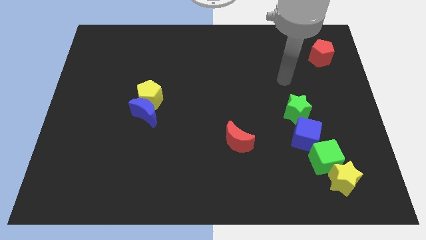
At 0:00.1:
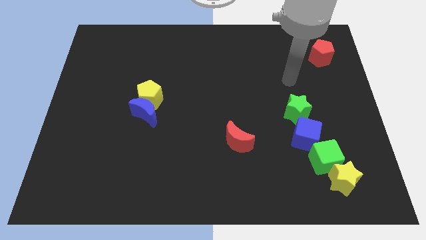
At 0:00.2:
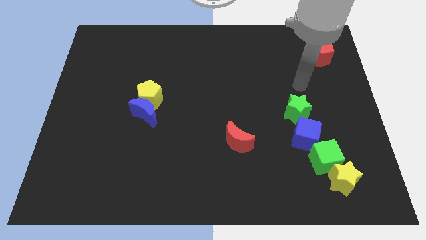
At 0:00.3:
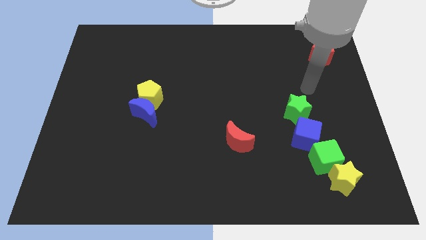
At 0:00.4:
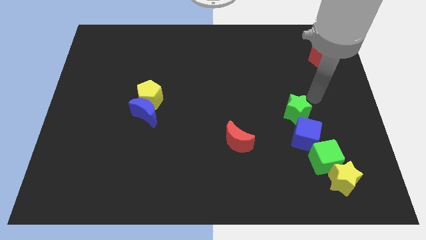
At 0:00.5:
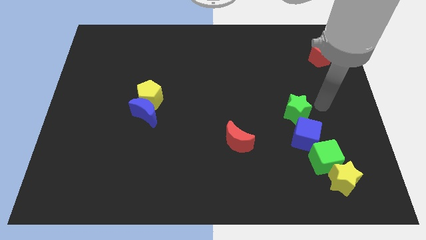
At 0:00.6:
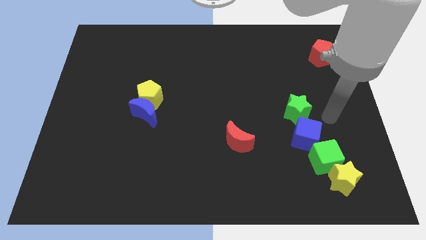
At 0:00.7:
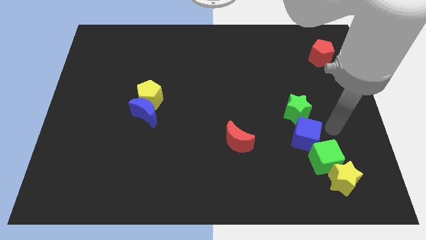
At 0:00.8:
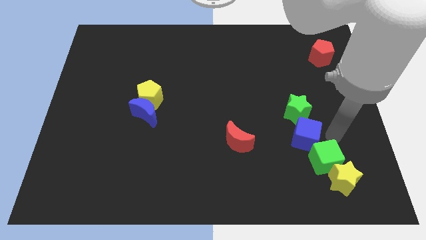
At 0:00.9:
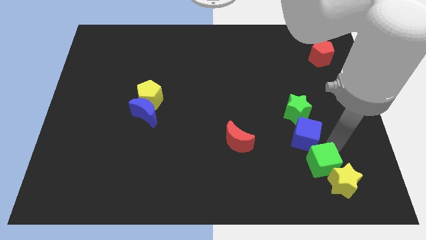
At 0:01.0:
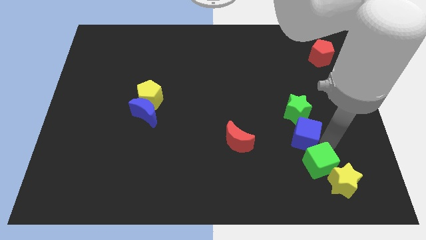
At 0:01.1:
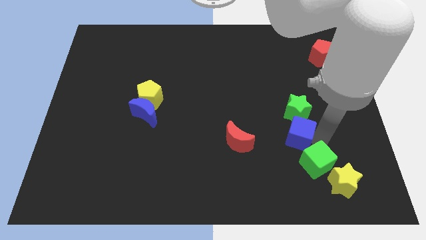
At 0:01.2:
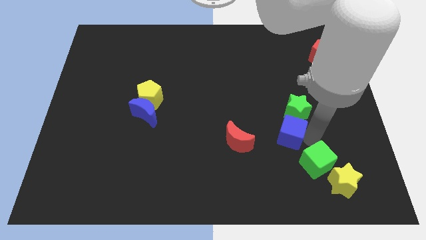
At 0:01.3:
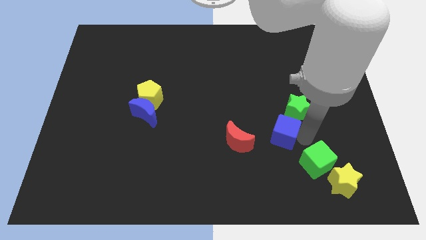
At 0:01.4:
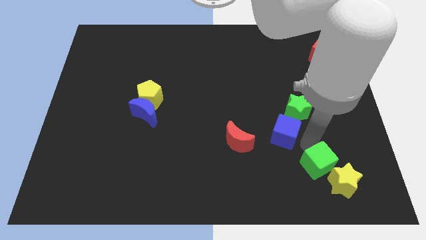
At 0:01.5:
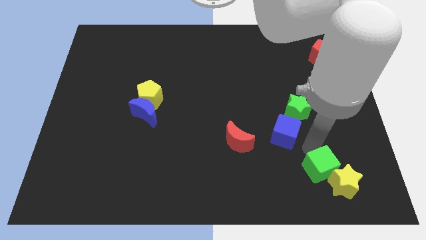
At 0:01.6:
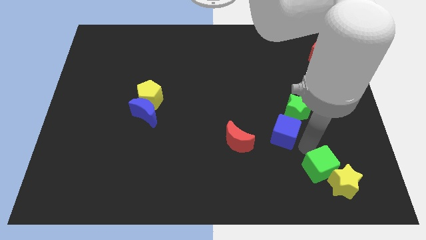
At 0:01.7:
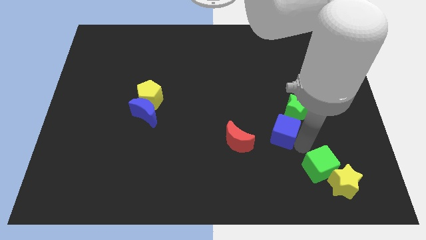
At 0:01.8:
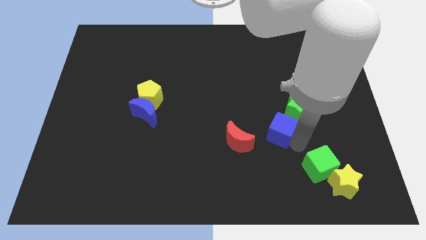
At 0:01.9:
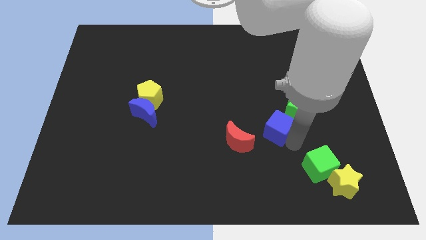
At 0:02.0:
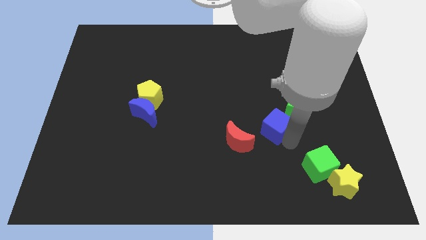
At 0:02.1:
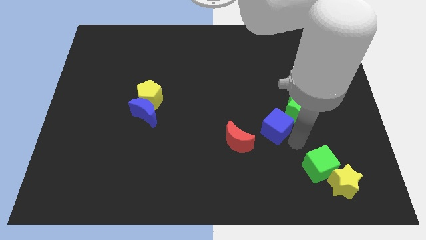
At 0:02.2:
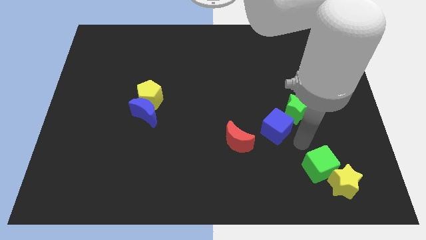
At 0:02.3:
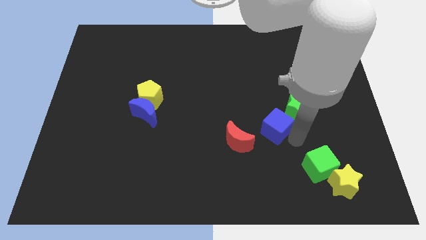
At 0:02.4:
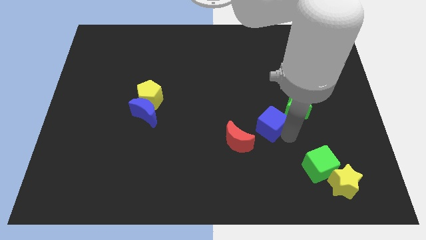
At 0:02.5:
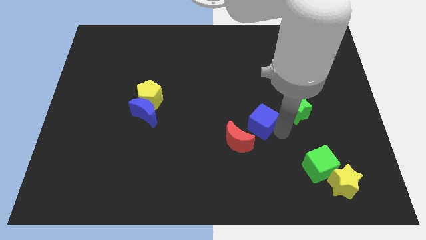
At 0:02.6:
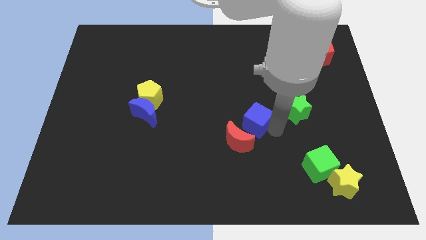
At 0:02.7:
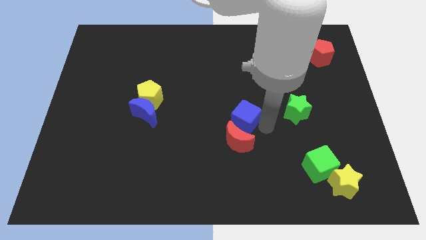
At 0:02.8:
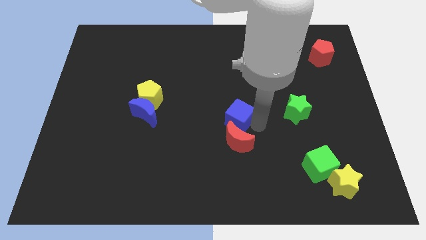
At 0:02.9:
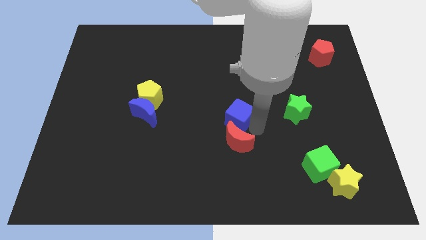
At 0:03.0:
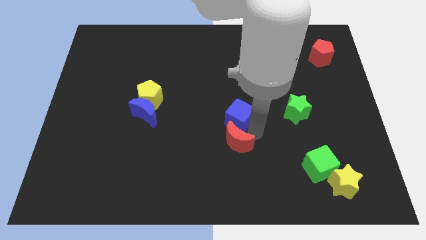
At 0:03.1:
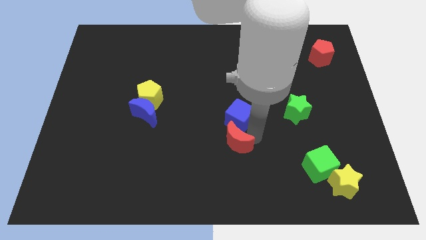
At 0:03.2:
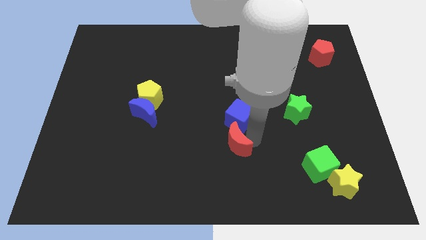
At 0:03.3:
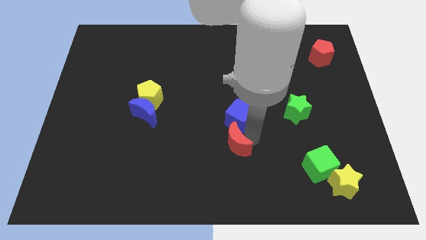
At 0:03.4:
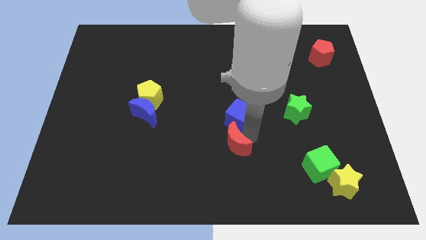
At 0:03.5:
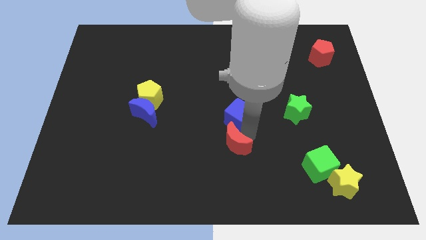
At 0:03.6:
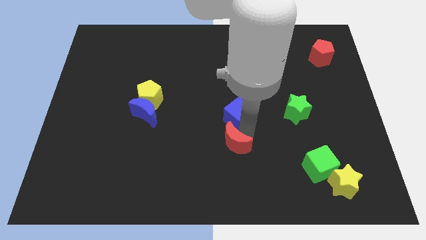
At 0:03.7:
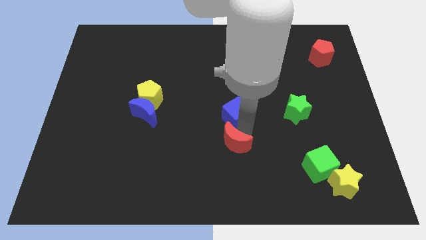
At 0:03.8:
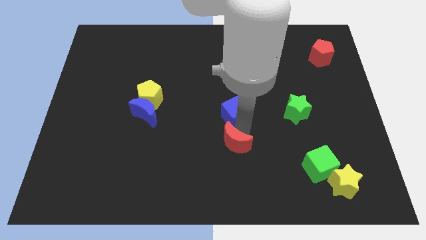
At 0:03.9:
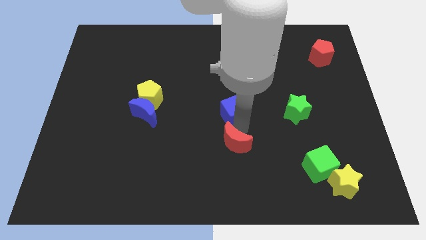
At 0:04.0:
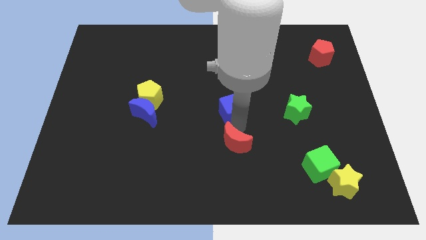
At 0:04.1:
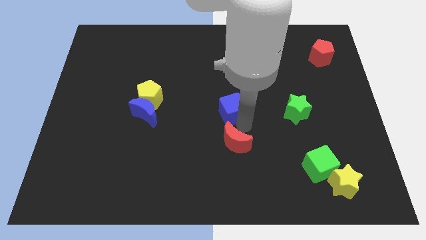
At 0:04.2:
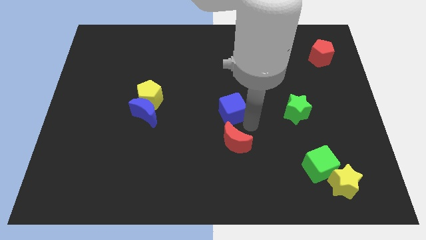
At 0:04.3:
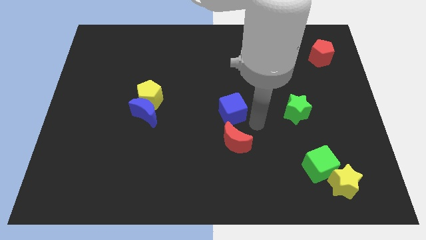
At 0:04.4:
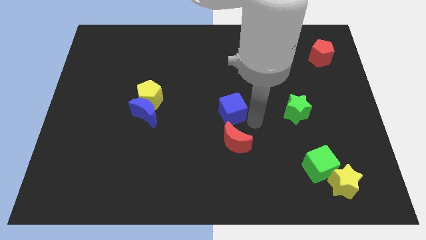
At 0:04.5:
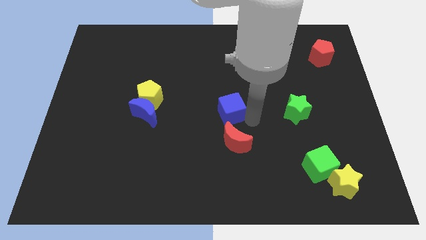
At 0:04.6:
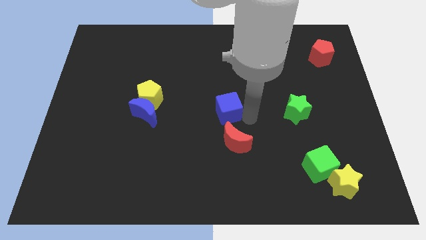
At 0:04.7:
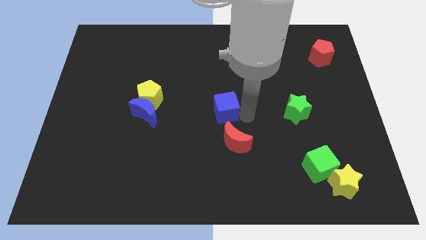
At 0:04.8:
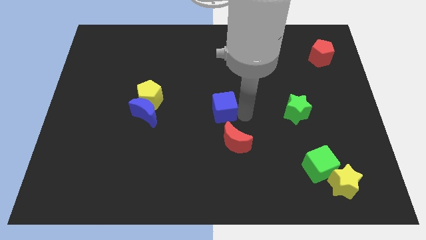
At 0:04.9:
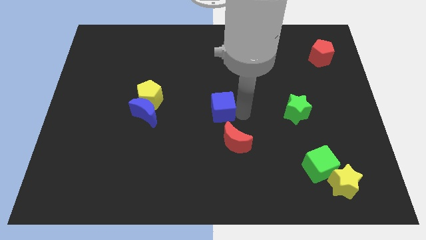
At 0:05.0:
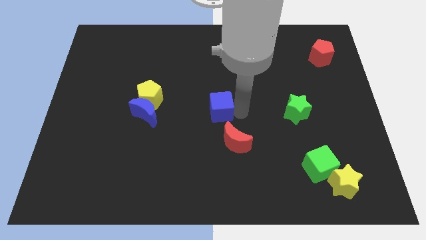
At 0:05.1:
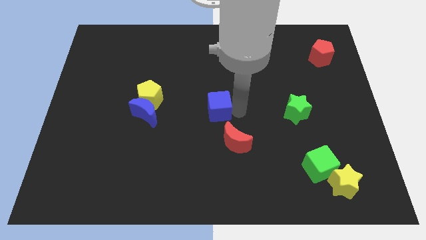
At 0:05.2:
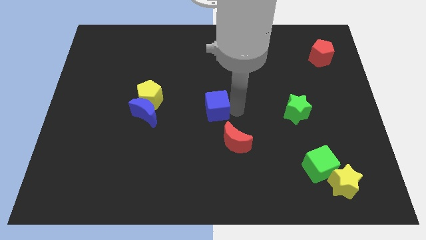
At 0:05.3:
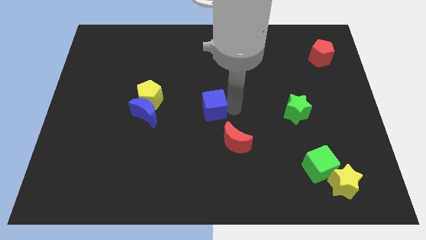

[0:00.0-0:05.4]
move the blue cube just right of the yellow pentagon
